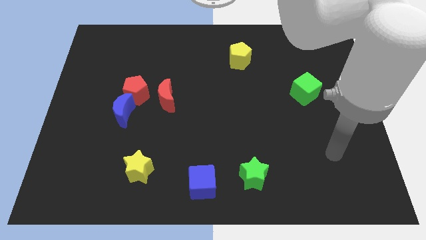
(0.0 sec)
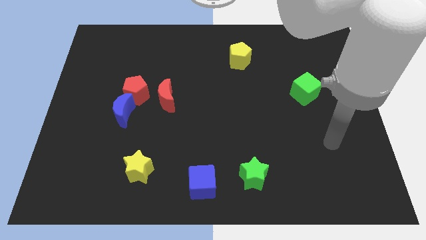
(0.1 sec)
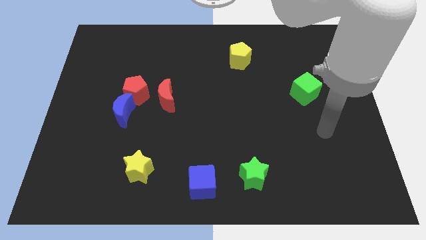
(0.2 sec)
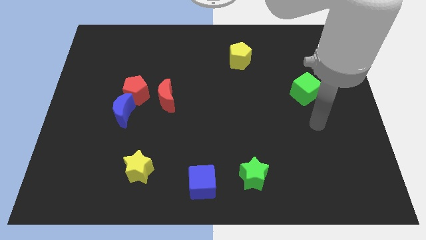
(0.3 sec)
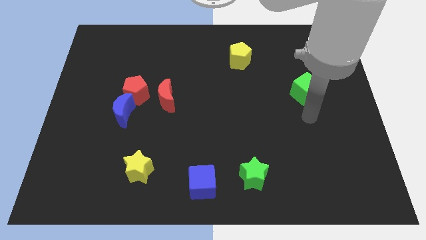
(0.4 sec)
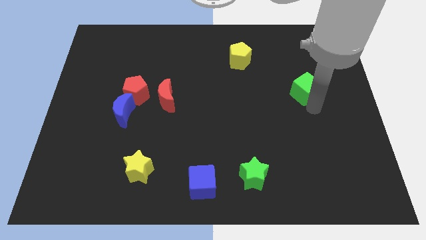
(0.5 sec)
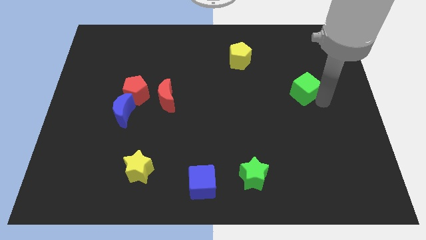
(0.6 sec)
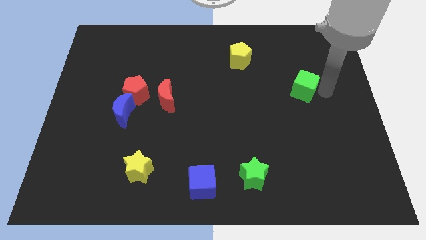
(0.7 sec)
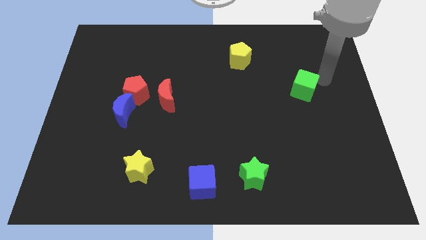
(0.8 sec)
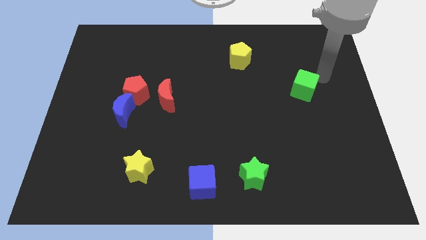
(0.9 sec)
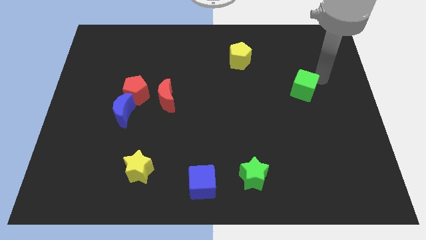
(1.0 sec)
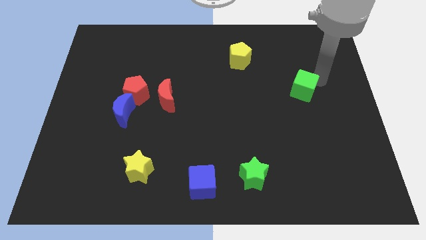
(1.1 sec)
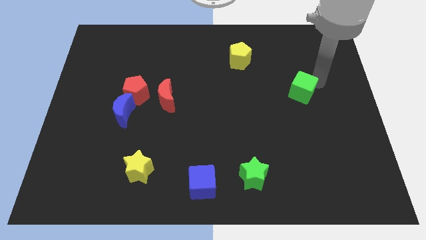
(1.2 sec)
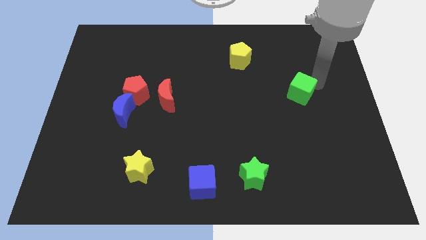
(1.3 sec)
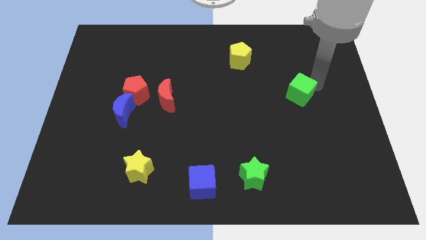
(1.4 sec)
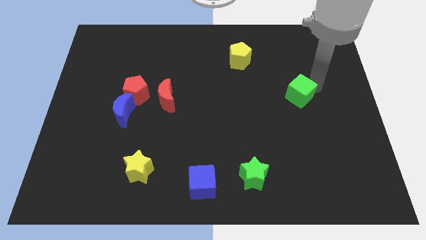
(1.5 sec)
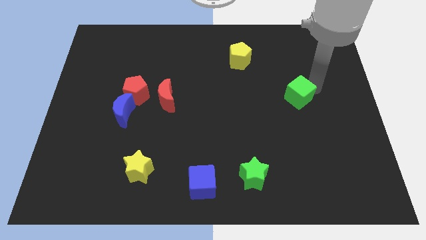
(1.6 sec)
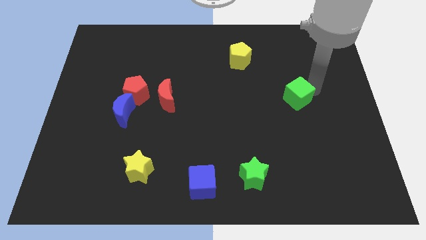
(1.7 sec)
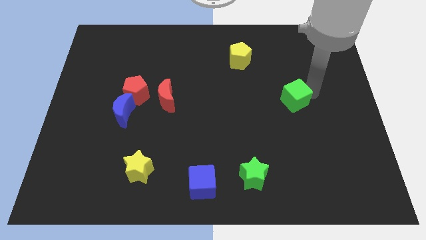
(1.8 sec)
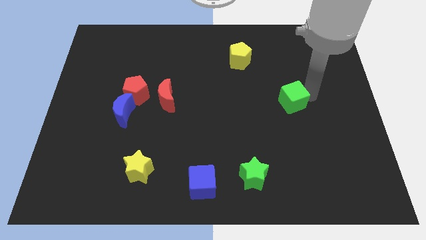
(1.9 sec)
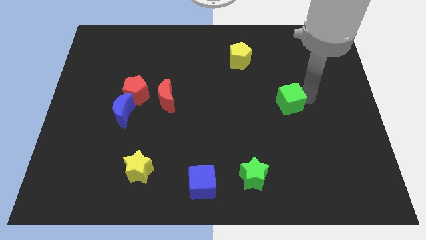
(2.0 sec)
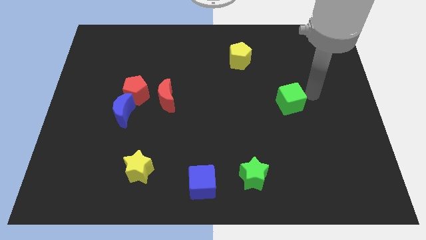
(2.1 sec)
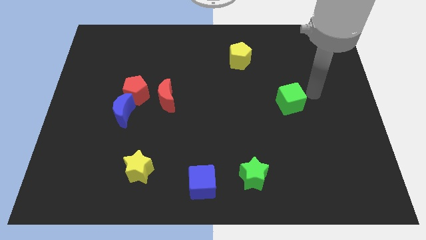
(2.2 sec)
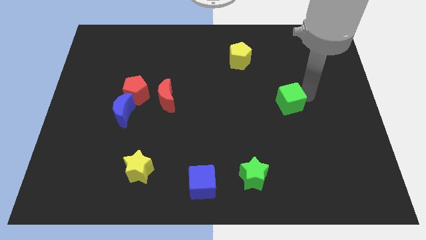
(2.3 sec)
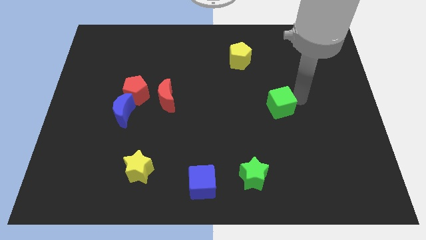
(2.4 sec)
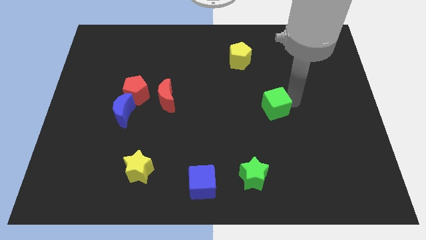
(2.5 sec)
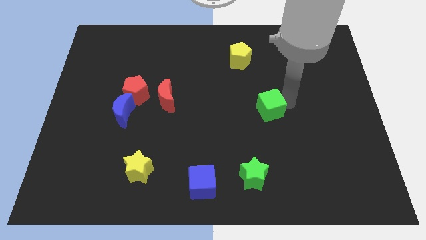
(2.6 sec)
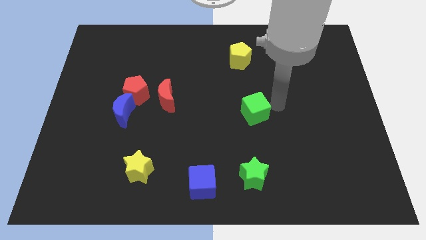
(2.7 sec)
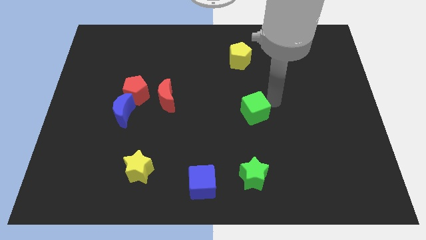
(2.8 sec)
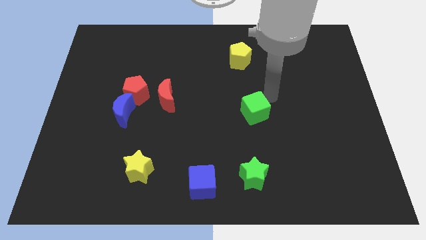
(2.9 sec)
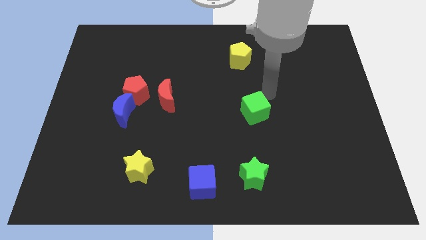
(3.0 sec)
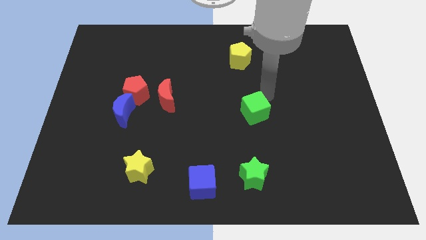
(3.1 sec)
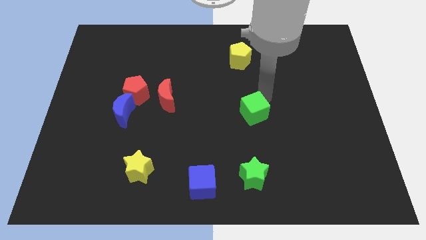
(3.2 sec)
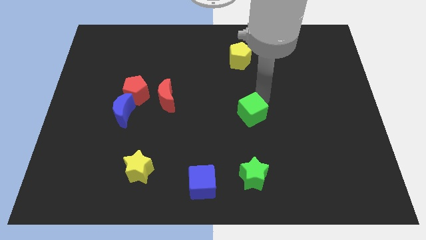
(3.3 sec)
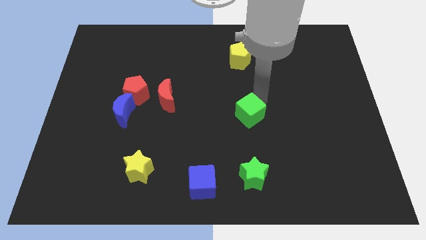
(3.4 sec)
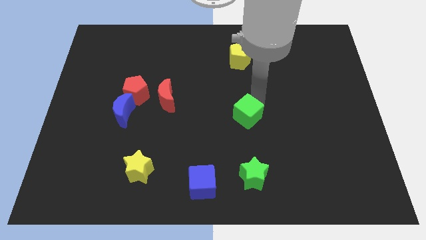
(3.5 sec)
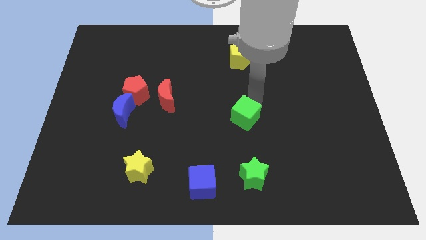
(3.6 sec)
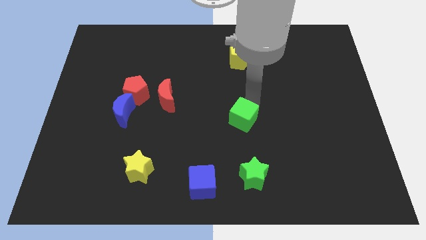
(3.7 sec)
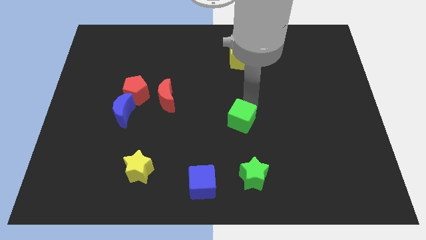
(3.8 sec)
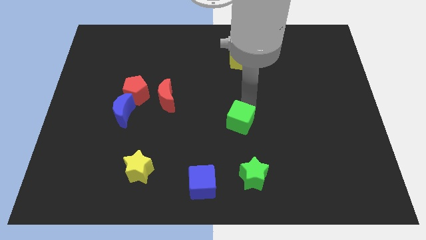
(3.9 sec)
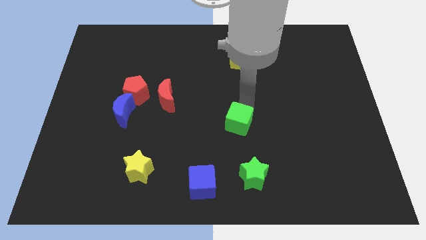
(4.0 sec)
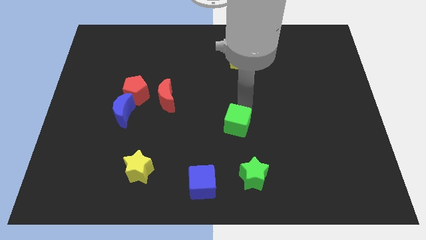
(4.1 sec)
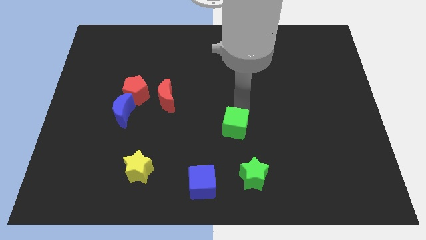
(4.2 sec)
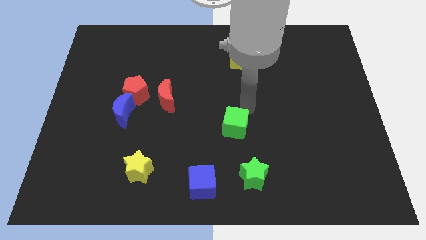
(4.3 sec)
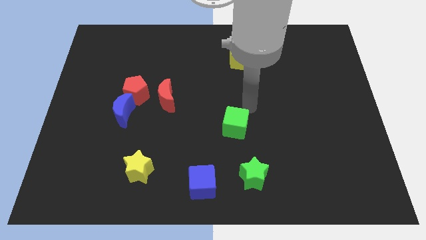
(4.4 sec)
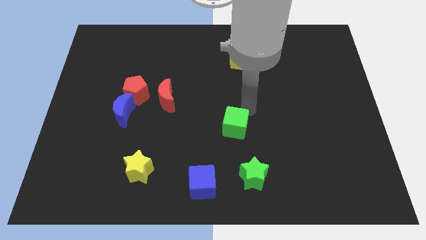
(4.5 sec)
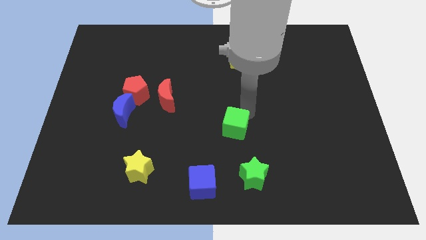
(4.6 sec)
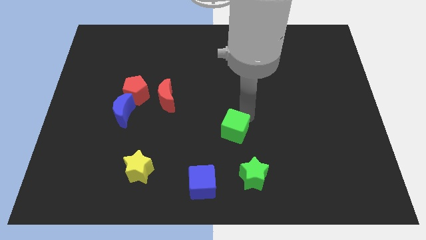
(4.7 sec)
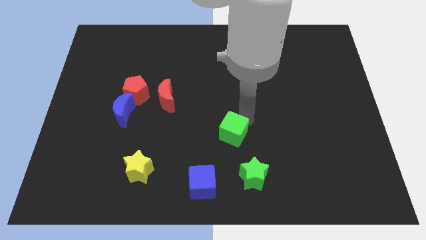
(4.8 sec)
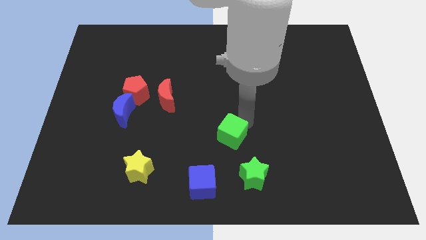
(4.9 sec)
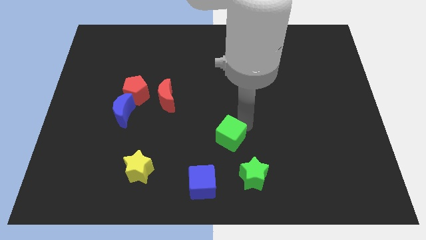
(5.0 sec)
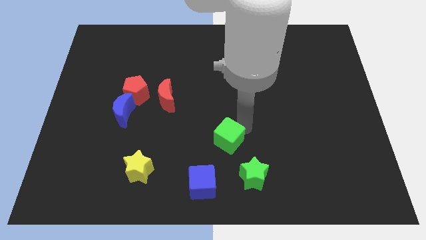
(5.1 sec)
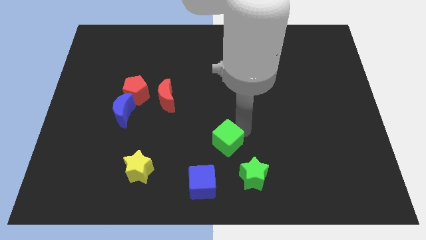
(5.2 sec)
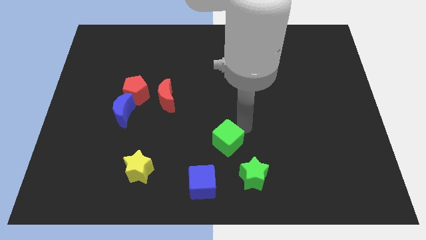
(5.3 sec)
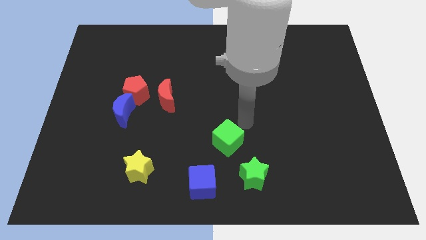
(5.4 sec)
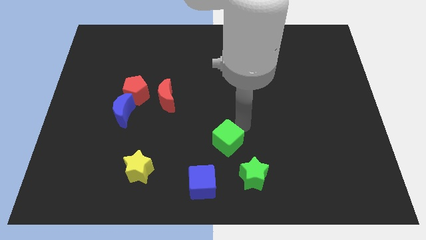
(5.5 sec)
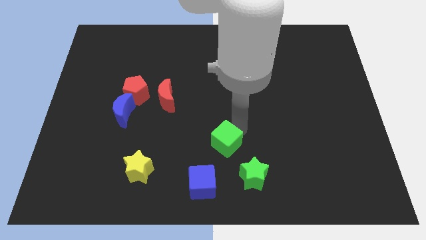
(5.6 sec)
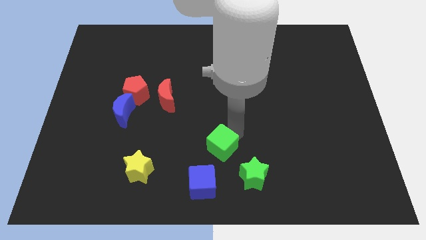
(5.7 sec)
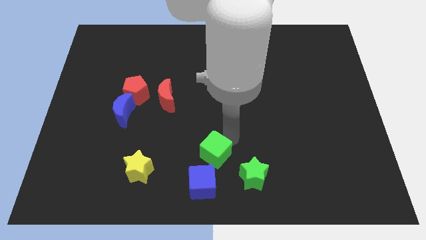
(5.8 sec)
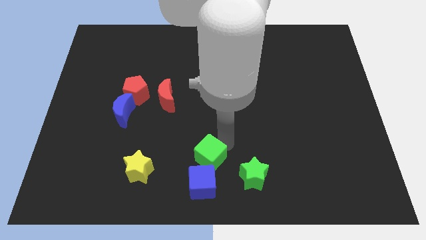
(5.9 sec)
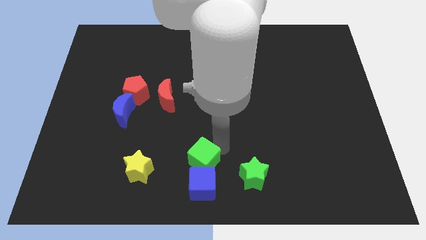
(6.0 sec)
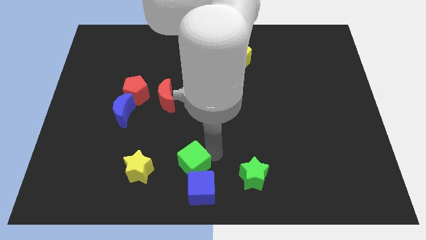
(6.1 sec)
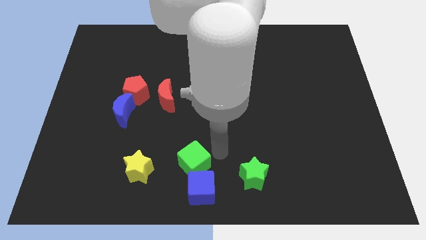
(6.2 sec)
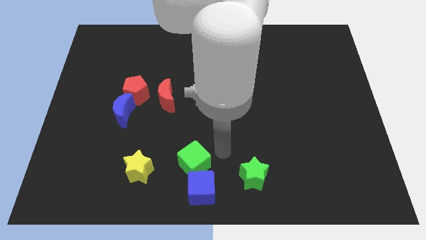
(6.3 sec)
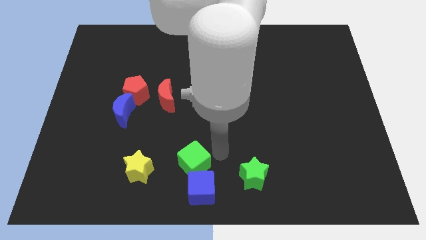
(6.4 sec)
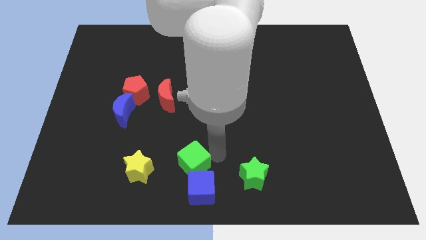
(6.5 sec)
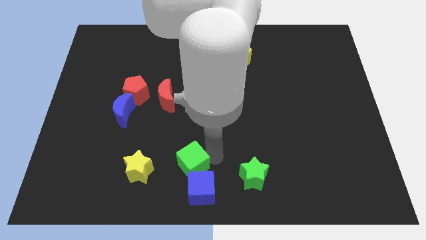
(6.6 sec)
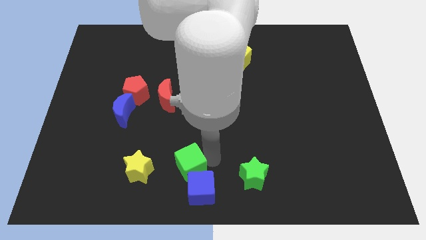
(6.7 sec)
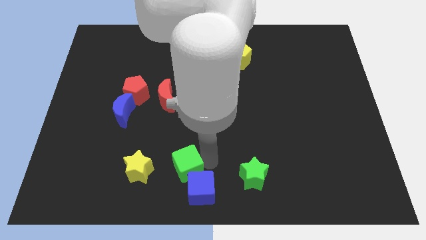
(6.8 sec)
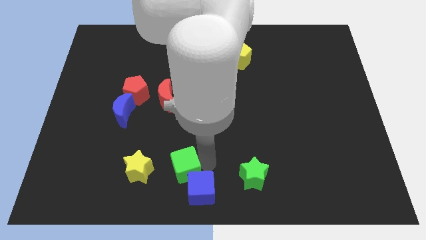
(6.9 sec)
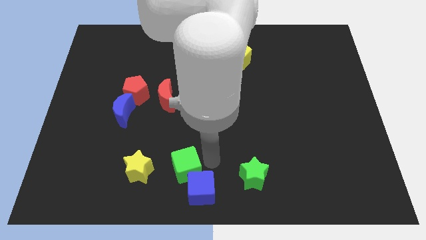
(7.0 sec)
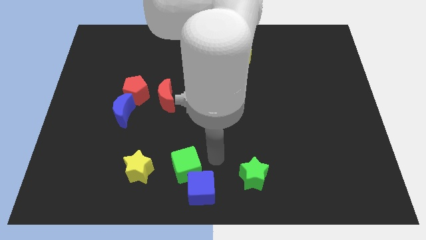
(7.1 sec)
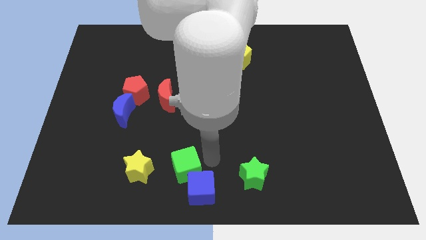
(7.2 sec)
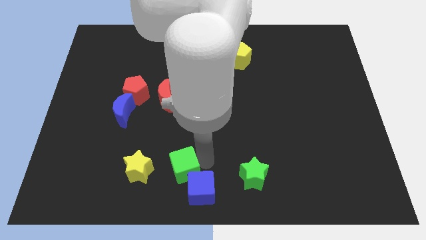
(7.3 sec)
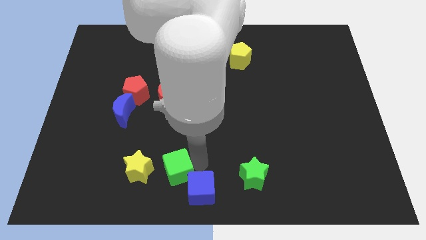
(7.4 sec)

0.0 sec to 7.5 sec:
slide the green cube just left of the blue cube
